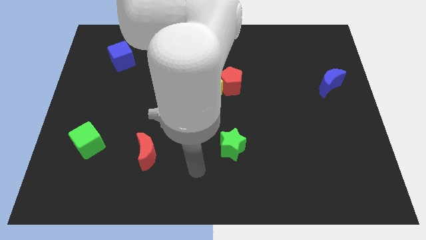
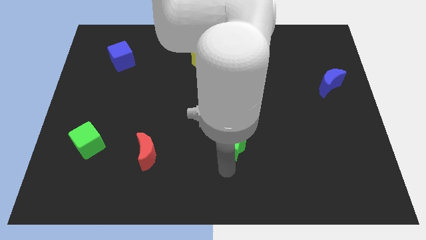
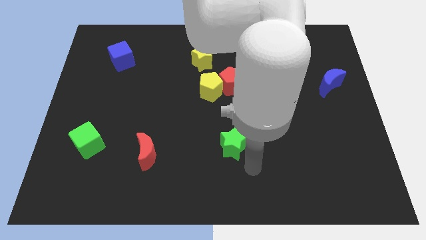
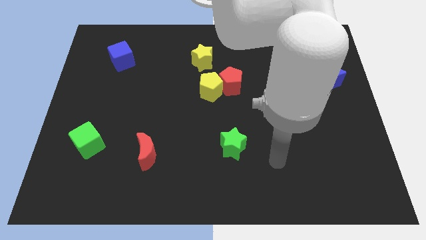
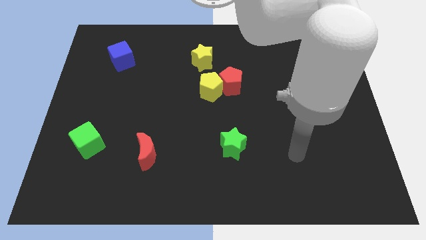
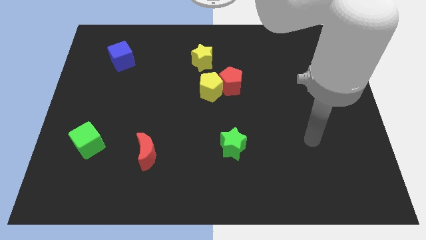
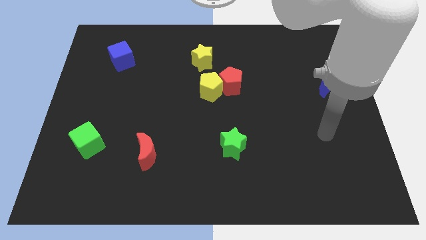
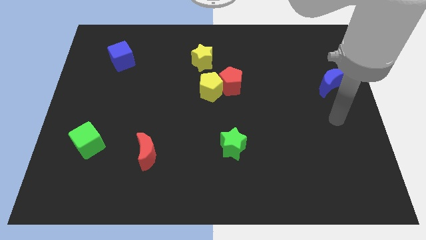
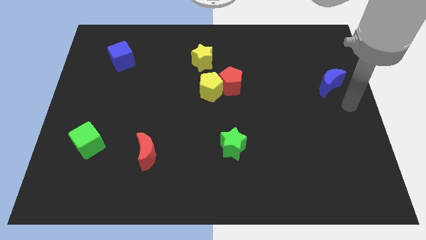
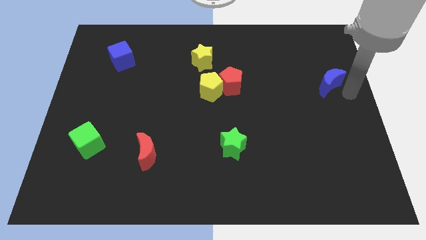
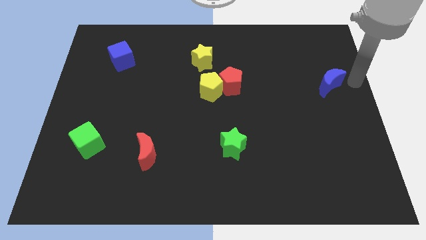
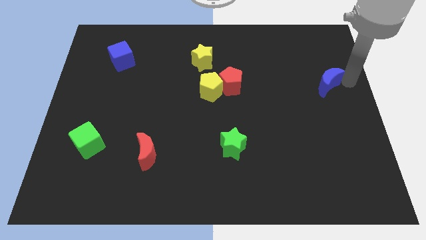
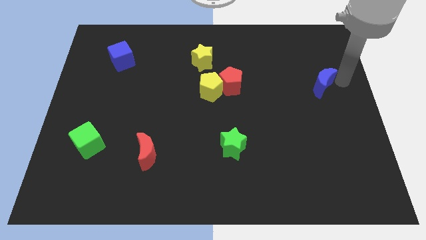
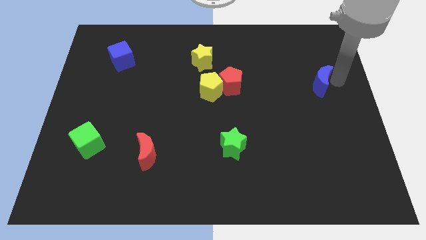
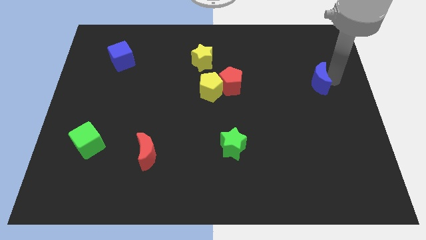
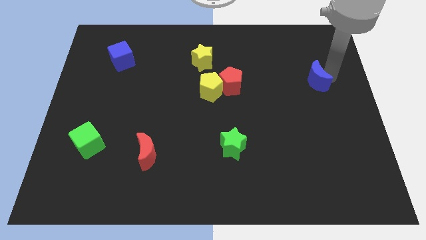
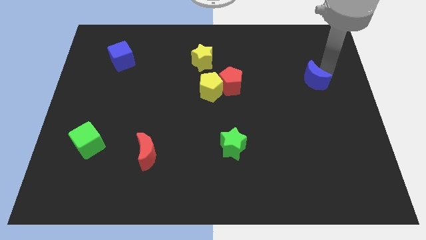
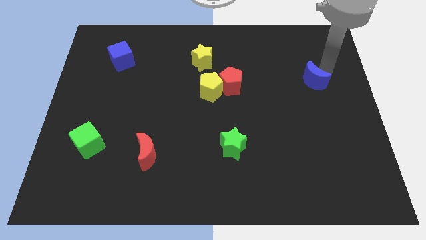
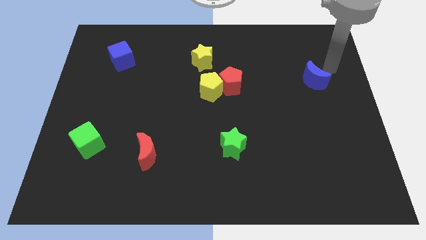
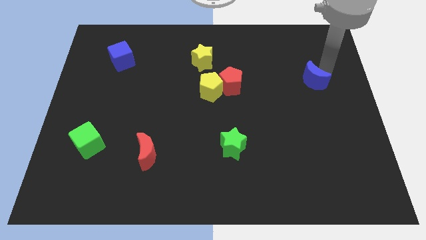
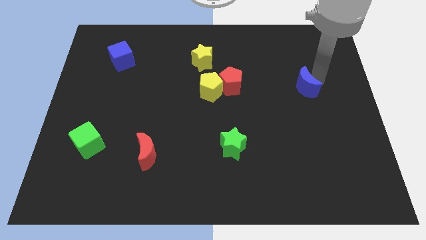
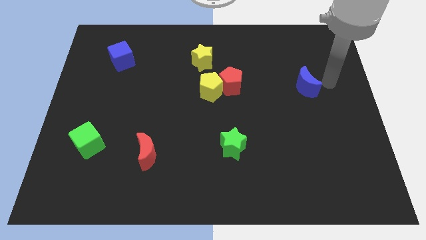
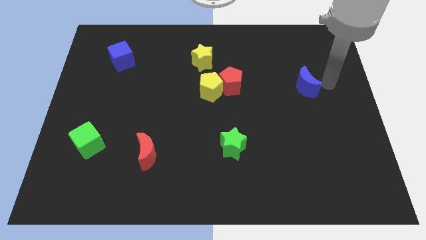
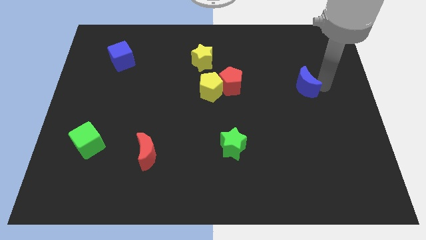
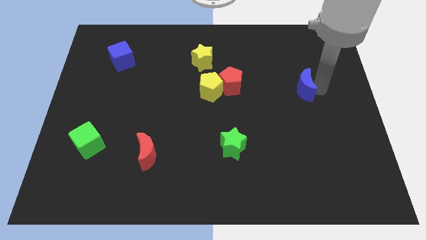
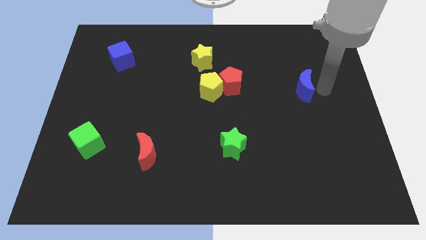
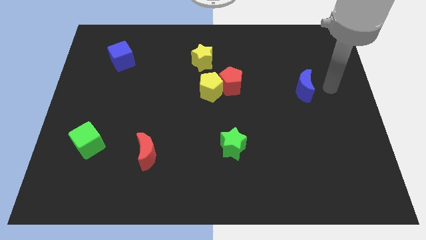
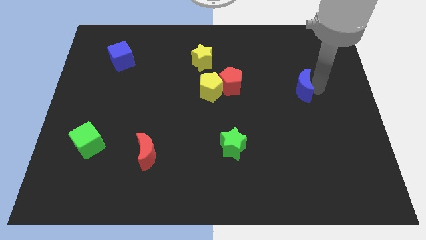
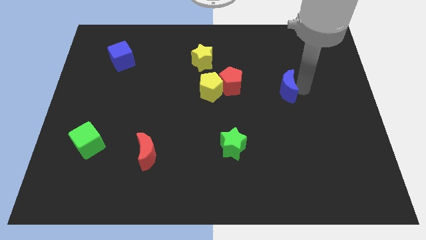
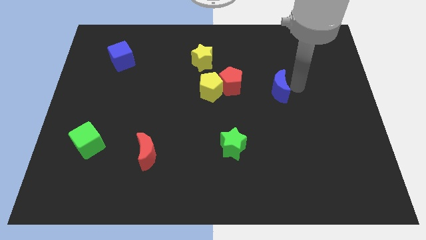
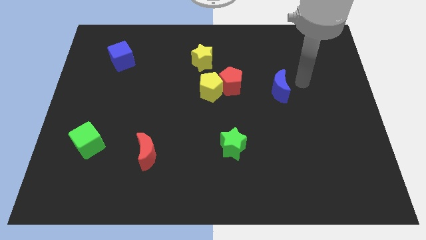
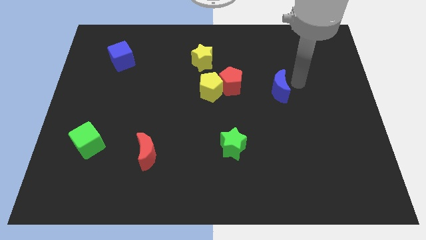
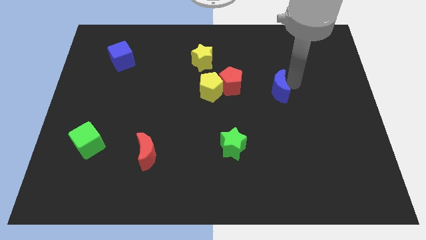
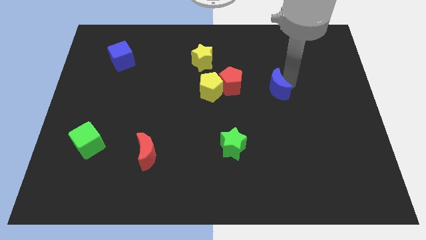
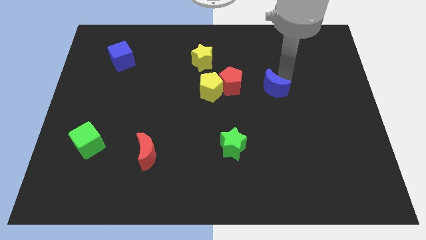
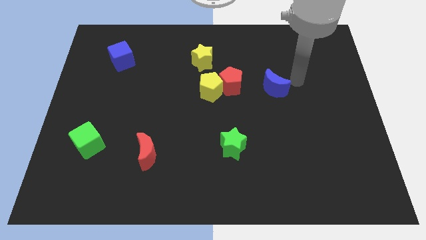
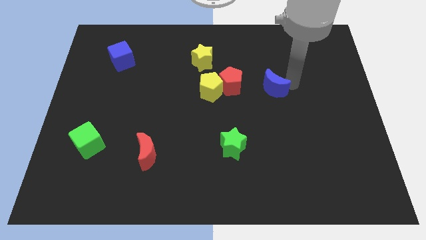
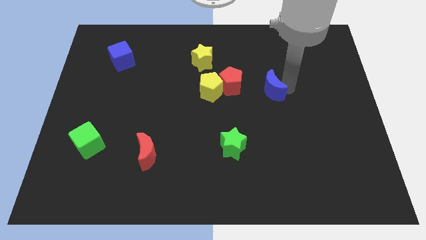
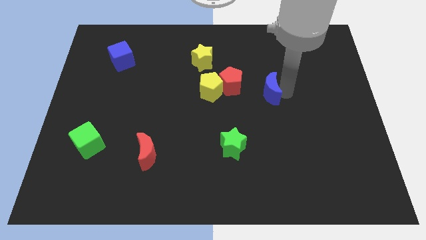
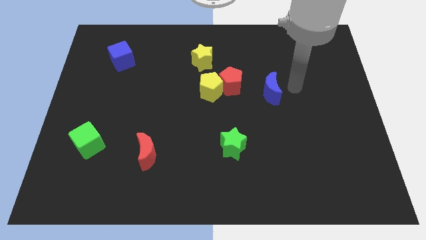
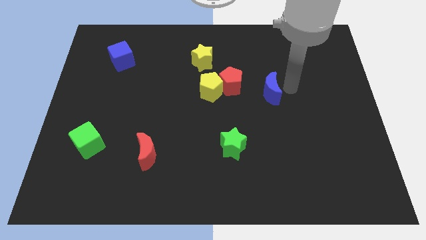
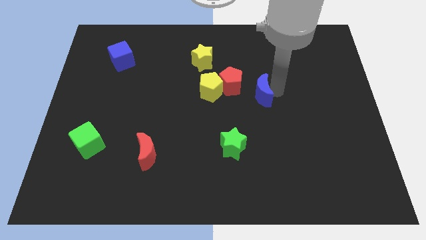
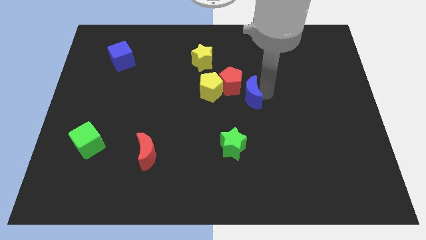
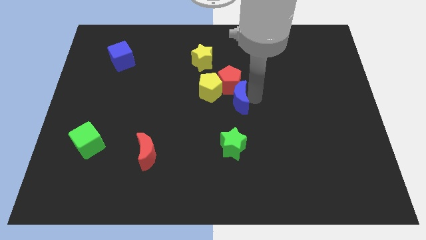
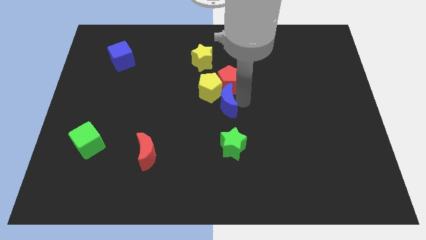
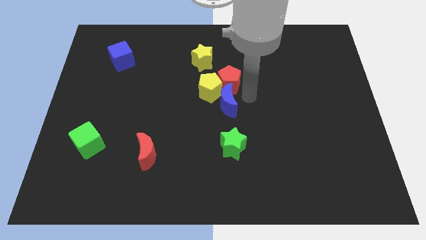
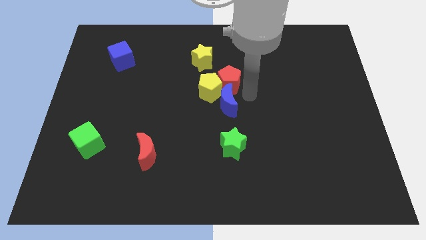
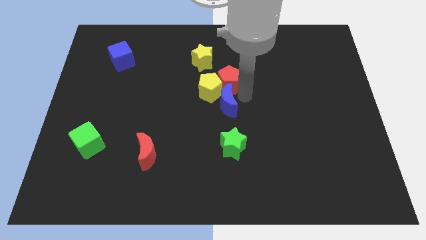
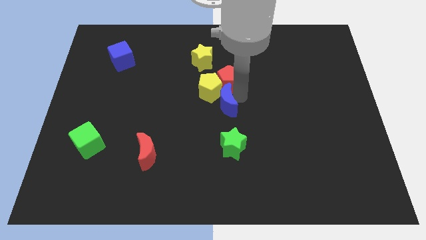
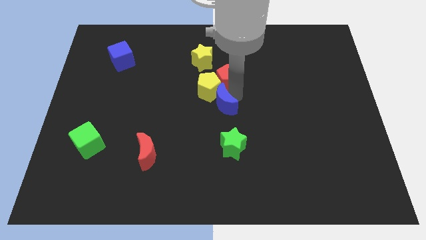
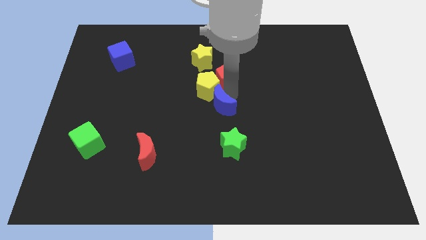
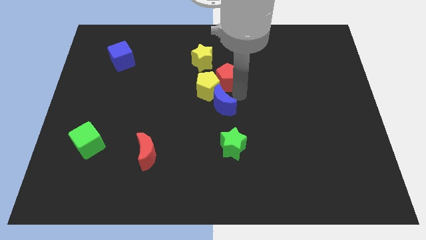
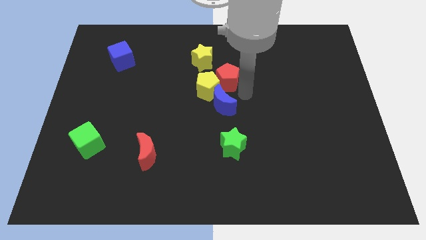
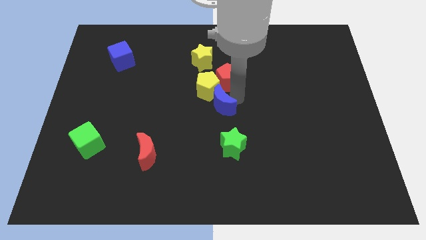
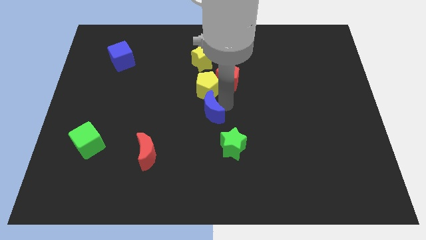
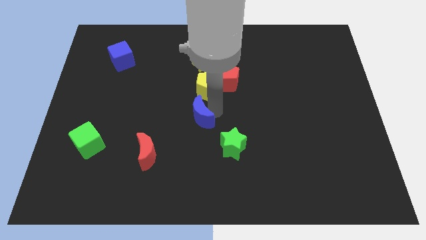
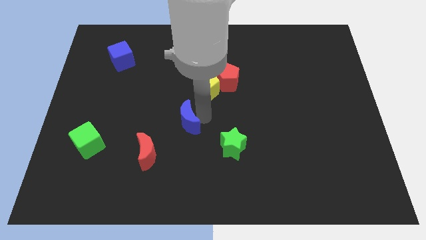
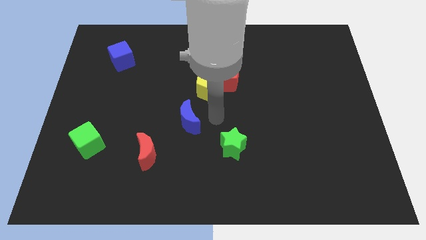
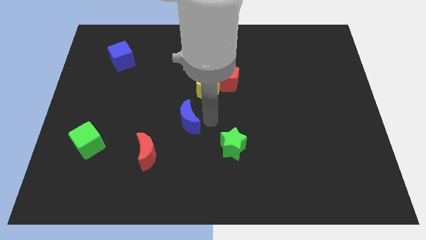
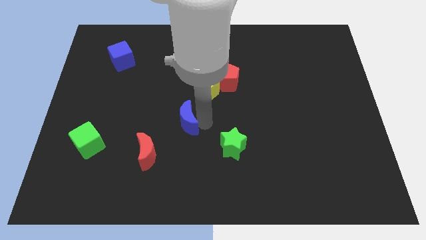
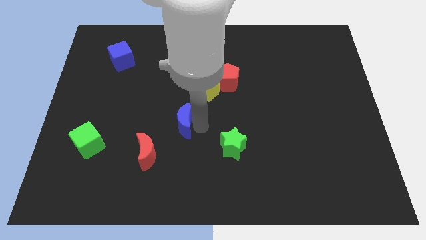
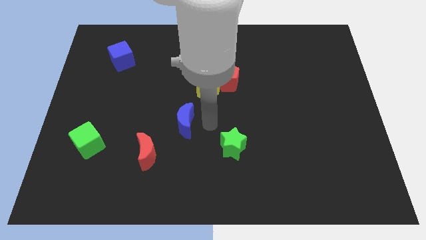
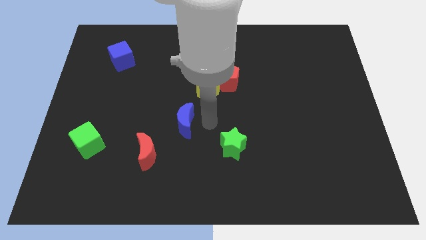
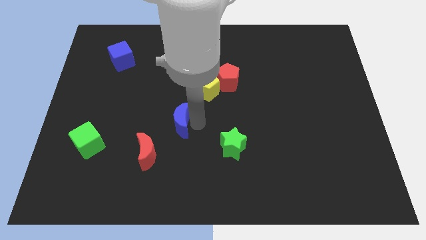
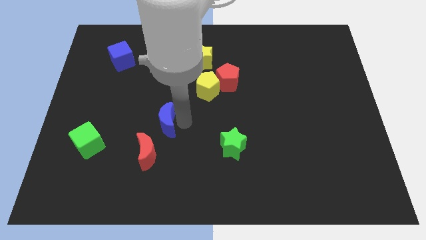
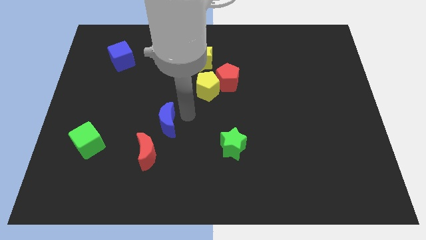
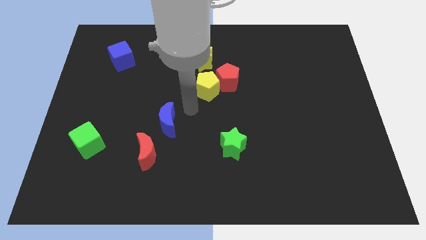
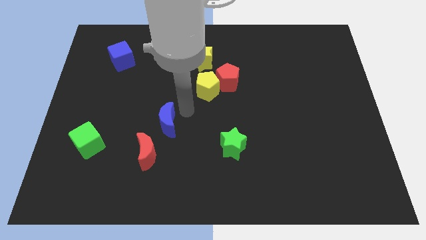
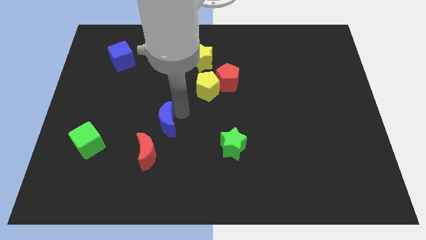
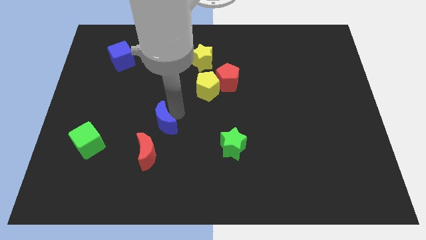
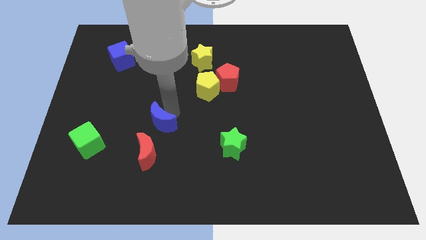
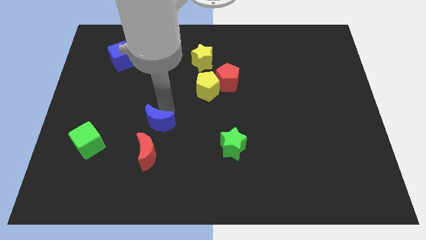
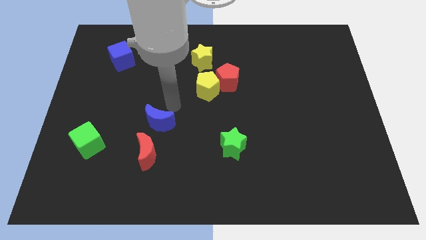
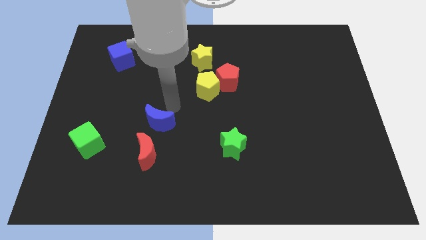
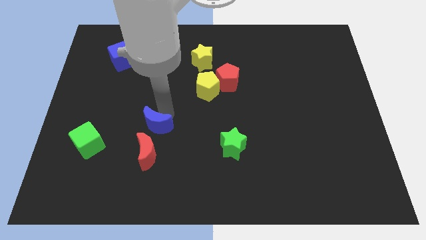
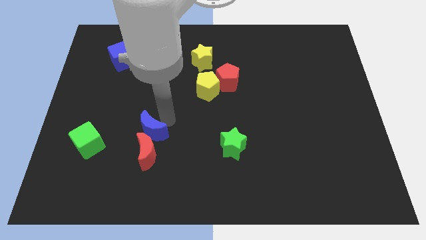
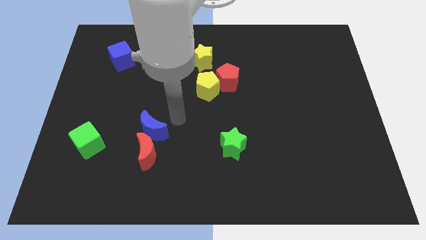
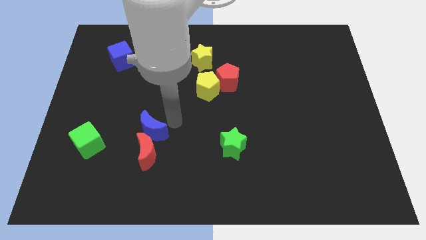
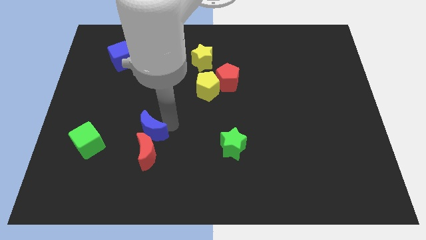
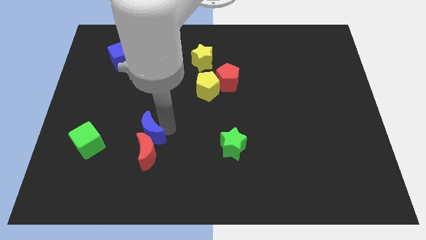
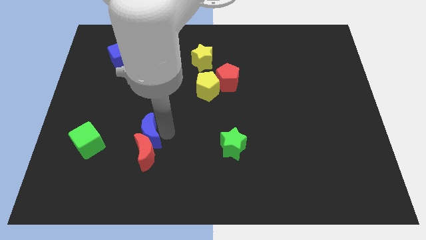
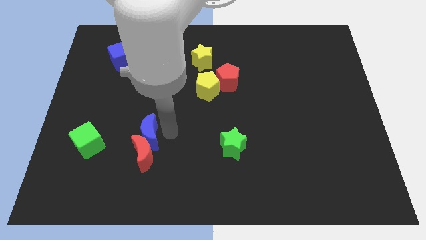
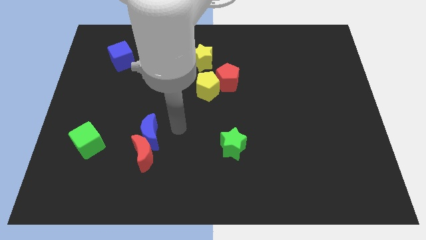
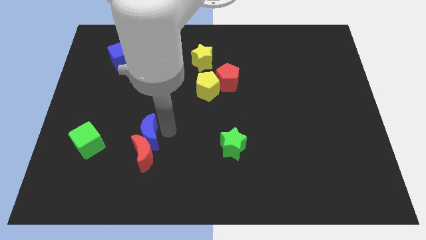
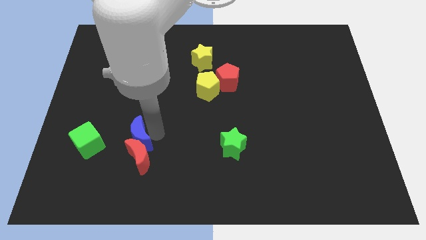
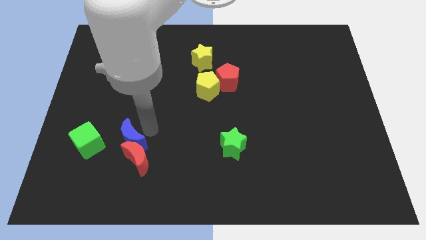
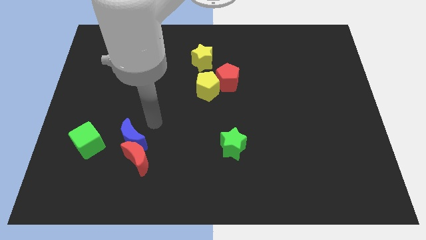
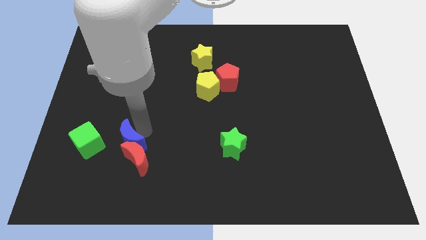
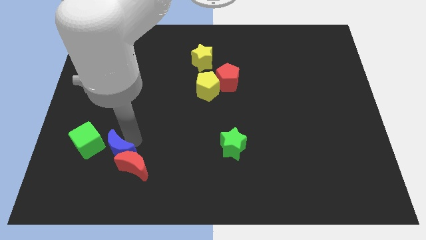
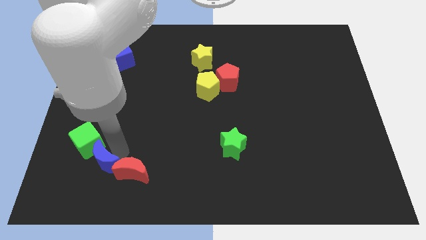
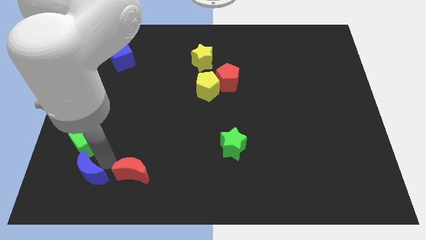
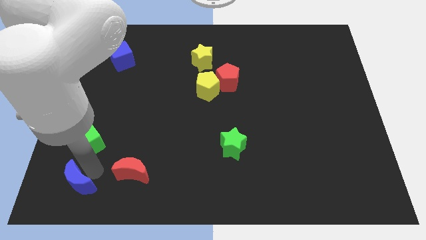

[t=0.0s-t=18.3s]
push the blue moon to the bottom left
